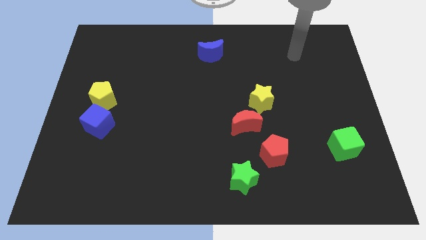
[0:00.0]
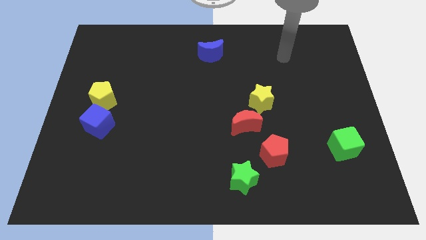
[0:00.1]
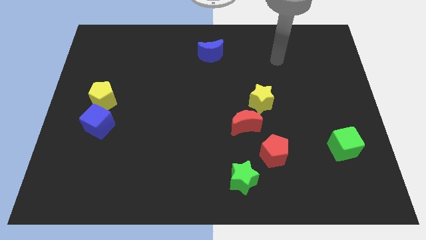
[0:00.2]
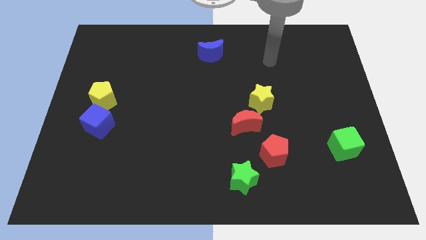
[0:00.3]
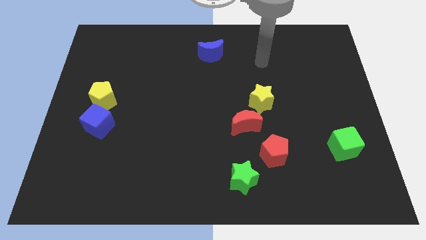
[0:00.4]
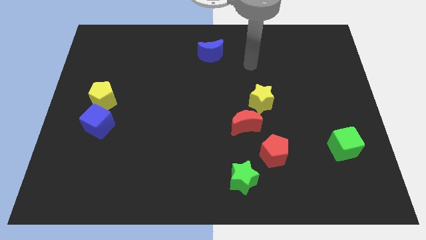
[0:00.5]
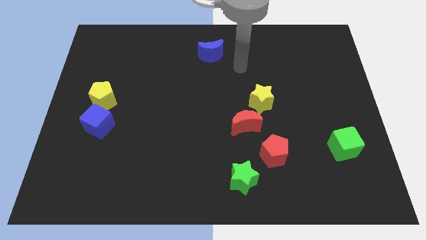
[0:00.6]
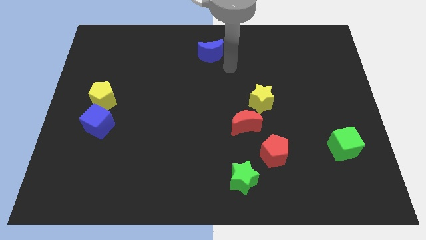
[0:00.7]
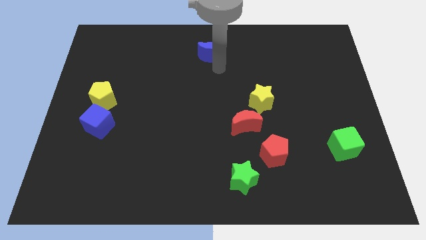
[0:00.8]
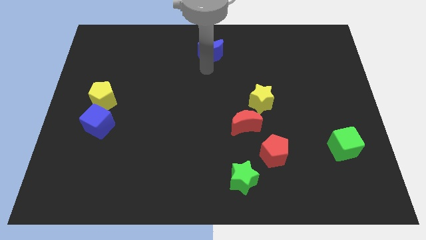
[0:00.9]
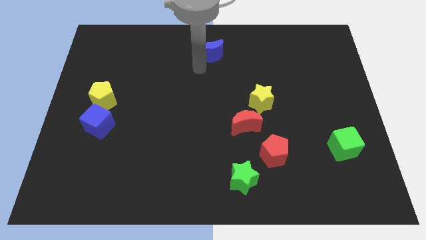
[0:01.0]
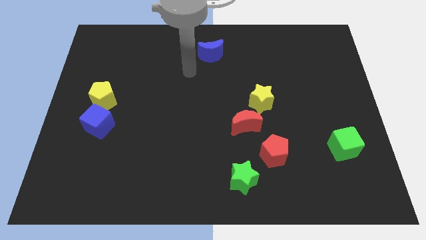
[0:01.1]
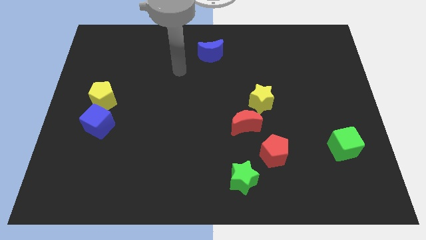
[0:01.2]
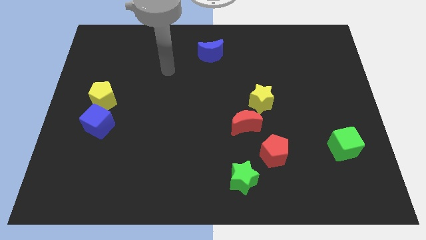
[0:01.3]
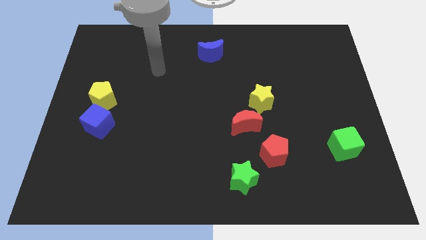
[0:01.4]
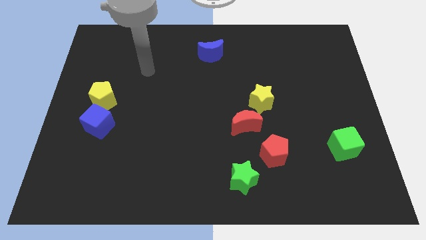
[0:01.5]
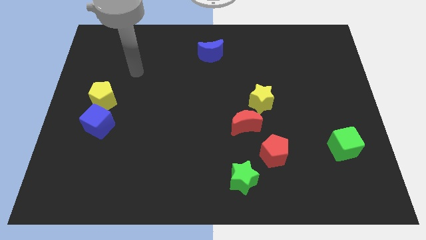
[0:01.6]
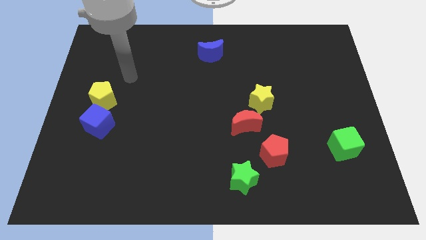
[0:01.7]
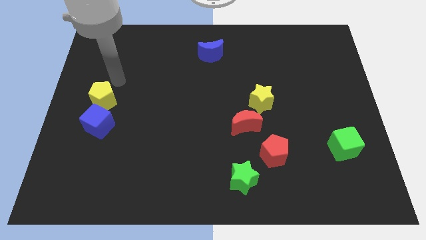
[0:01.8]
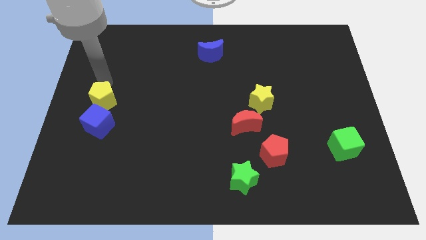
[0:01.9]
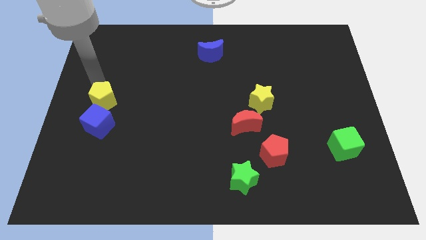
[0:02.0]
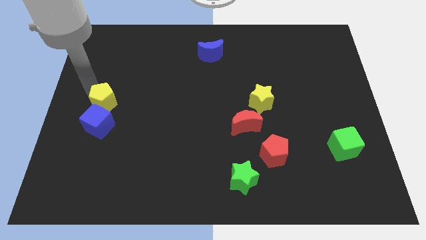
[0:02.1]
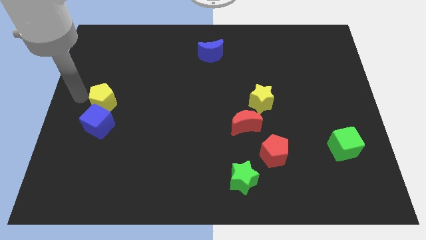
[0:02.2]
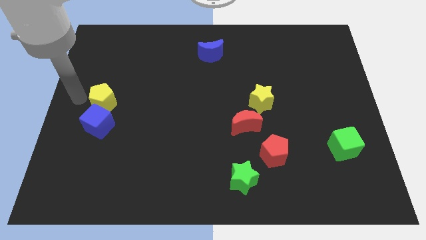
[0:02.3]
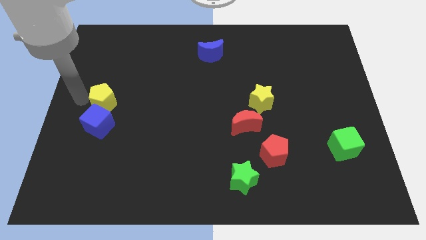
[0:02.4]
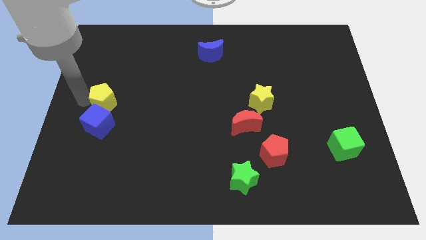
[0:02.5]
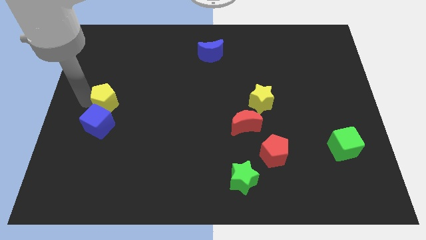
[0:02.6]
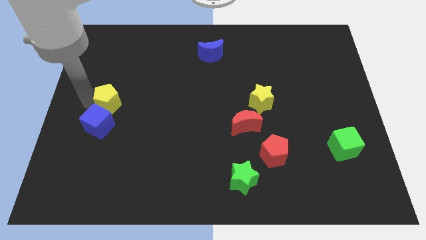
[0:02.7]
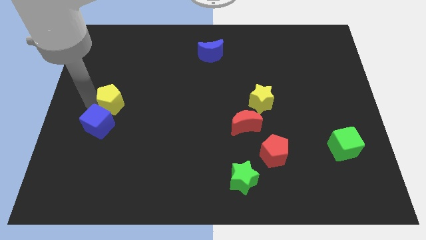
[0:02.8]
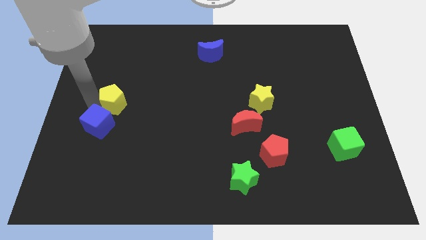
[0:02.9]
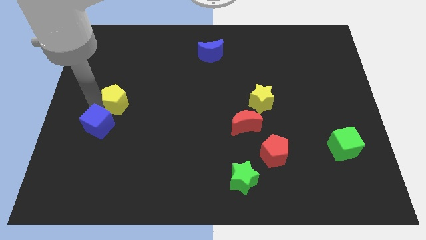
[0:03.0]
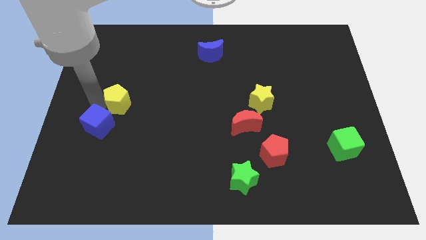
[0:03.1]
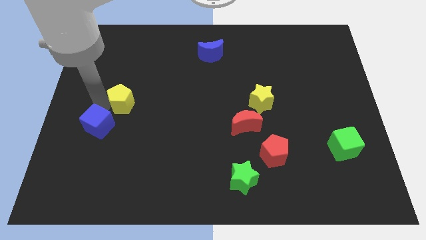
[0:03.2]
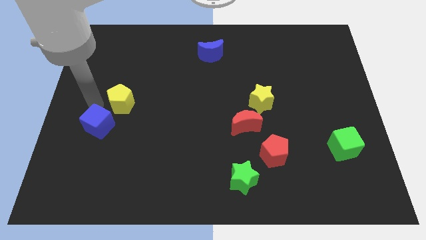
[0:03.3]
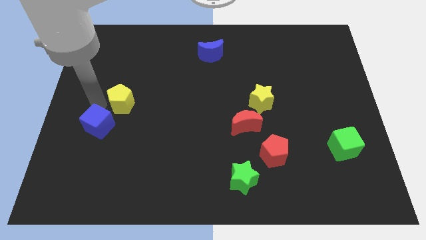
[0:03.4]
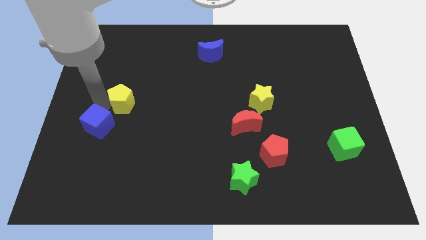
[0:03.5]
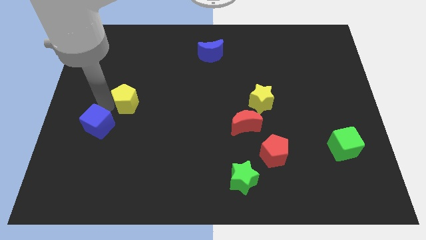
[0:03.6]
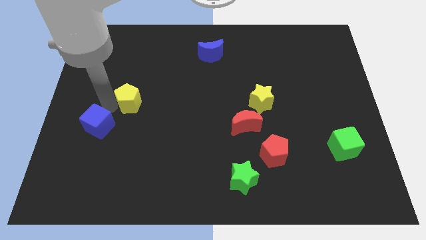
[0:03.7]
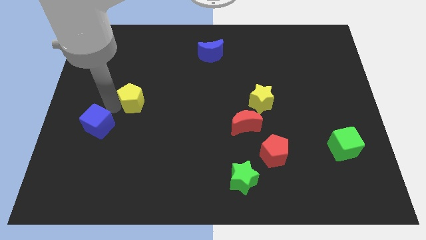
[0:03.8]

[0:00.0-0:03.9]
slide the yellow pentagon right a little

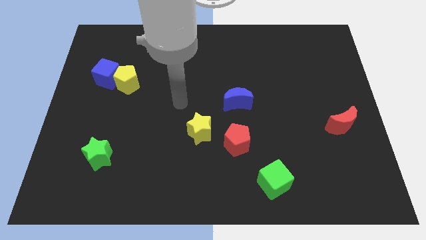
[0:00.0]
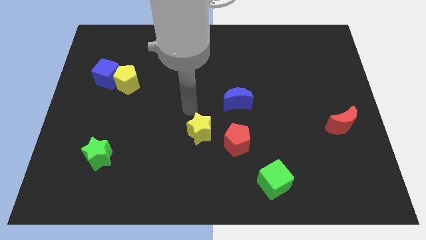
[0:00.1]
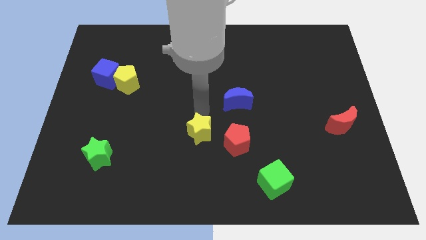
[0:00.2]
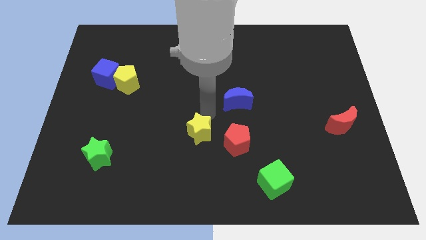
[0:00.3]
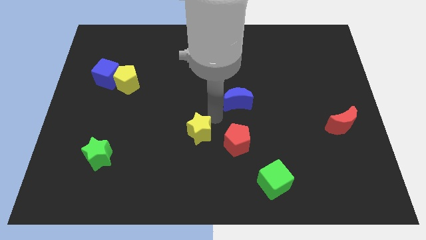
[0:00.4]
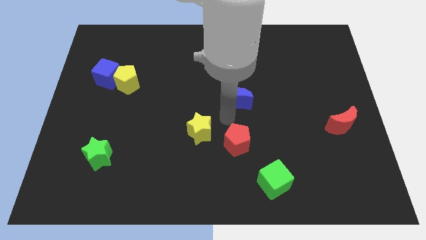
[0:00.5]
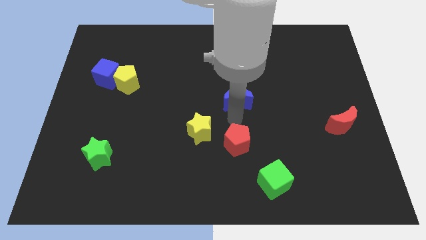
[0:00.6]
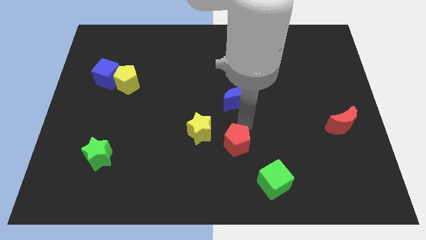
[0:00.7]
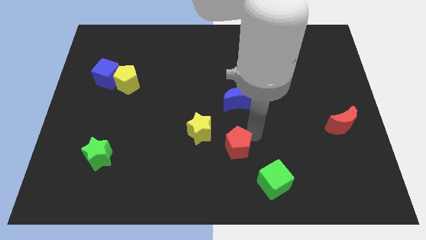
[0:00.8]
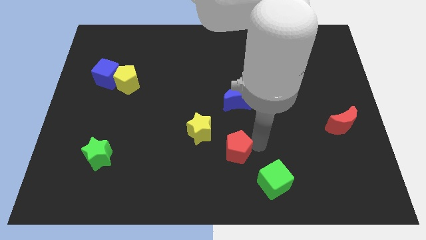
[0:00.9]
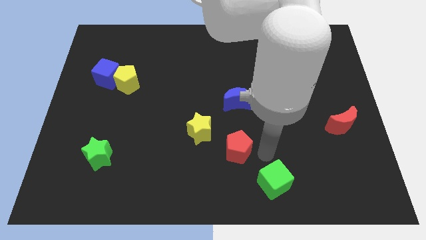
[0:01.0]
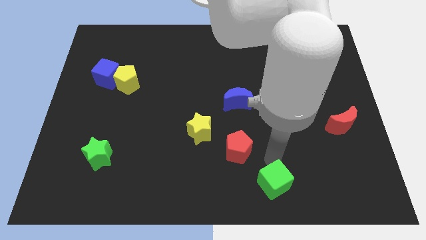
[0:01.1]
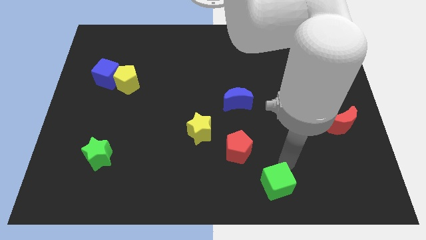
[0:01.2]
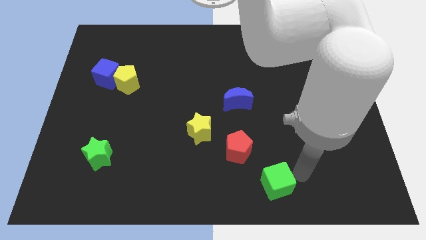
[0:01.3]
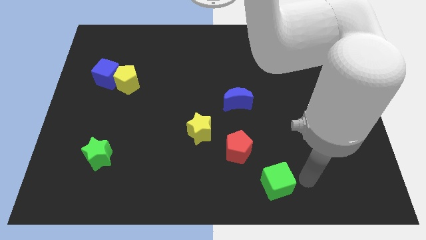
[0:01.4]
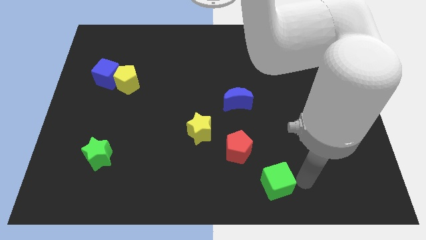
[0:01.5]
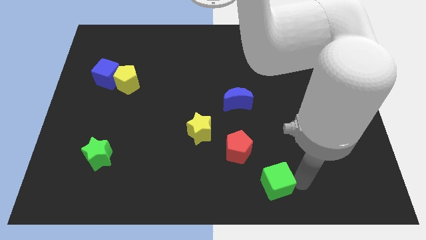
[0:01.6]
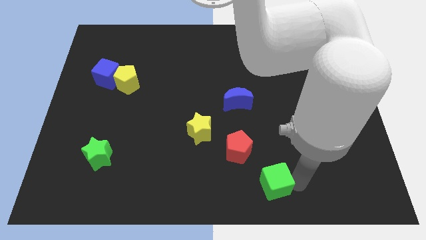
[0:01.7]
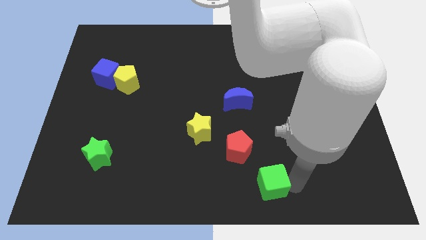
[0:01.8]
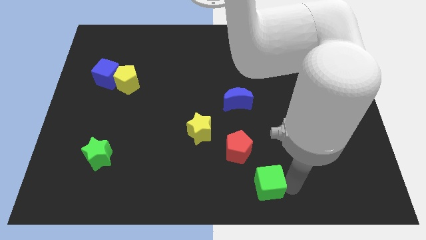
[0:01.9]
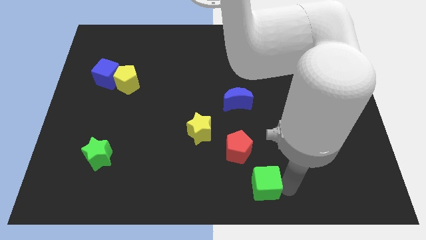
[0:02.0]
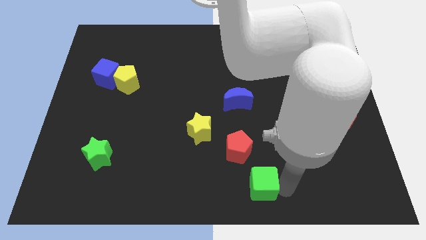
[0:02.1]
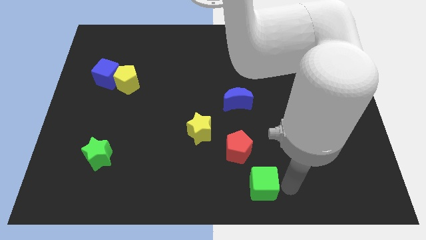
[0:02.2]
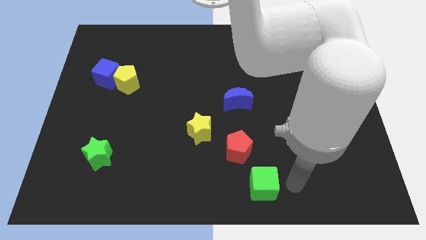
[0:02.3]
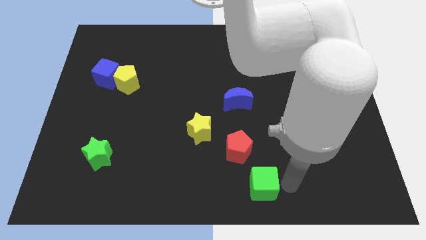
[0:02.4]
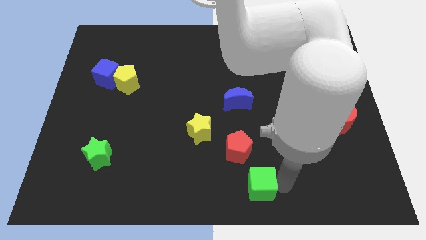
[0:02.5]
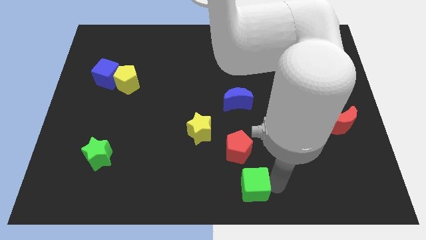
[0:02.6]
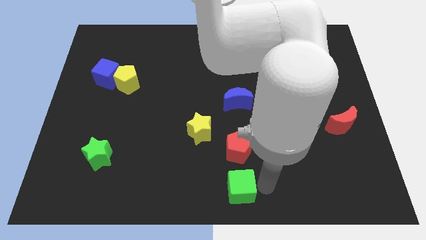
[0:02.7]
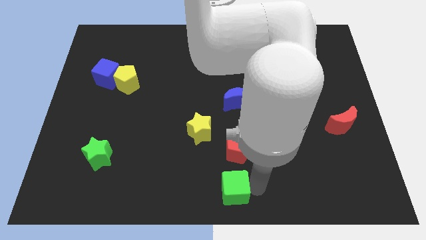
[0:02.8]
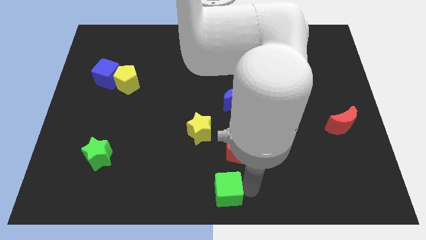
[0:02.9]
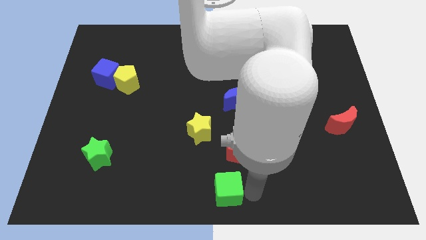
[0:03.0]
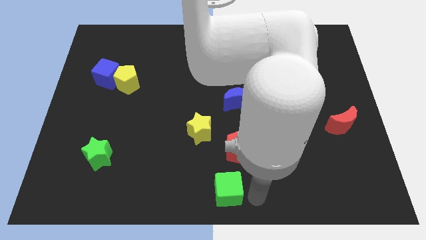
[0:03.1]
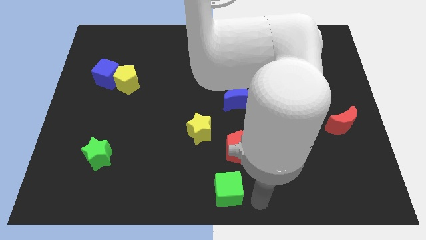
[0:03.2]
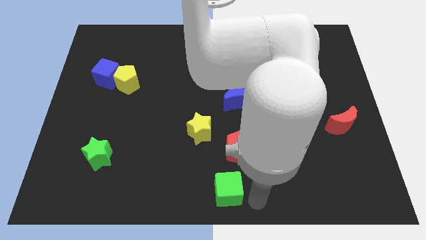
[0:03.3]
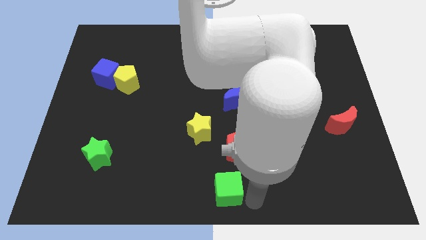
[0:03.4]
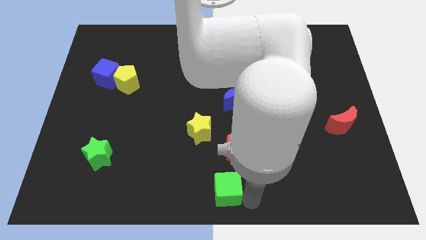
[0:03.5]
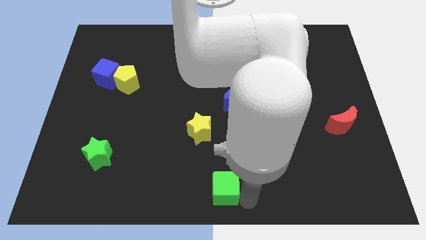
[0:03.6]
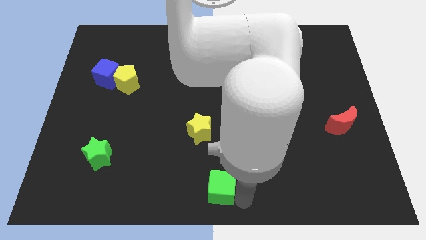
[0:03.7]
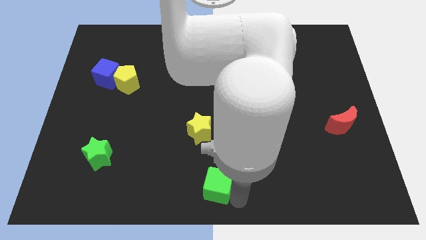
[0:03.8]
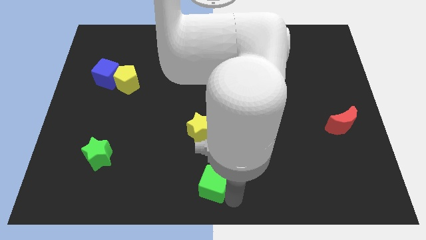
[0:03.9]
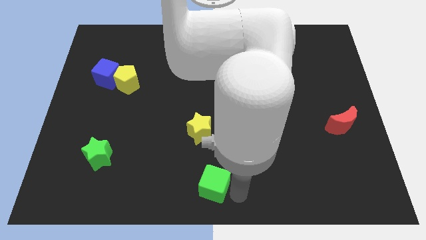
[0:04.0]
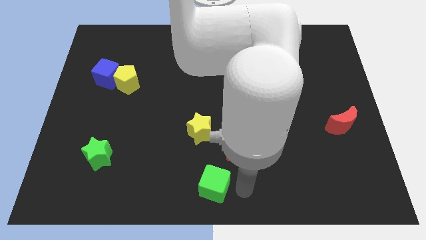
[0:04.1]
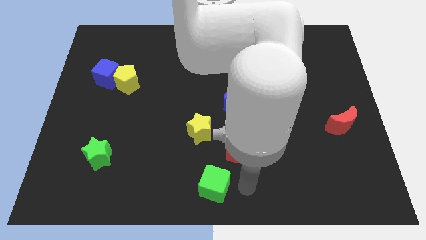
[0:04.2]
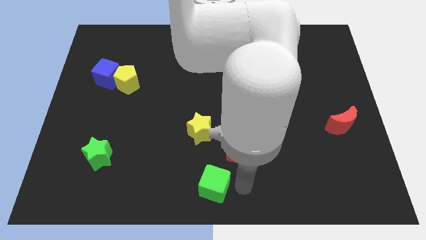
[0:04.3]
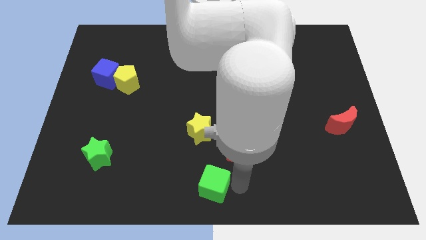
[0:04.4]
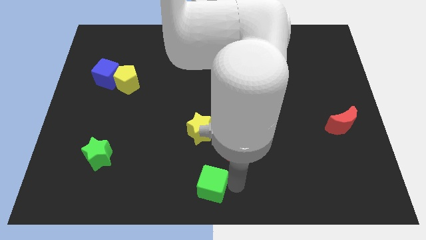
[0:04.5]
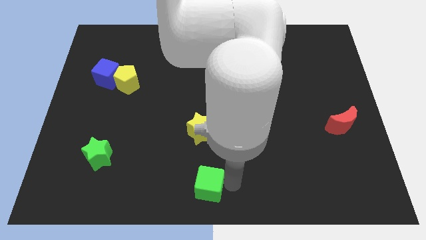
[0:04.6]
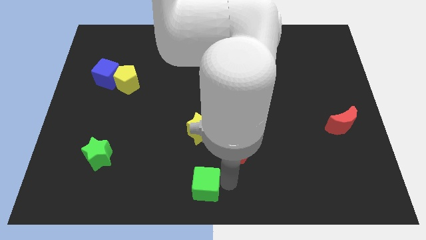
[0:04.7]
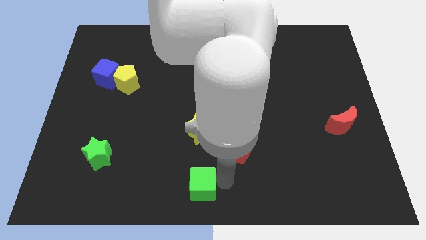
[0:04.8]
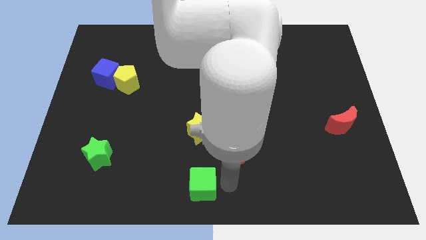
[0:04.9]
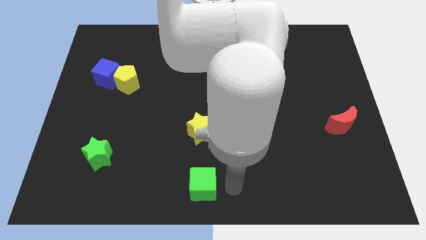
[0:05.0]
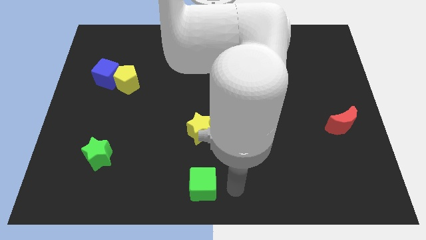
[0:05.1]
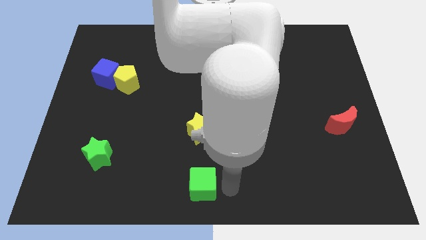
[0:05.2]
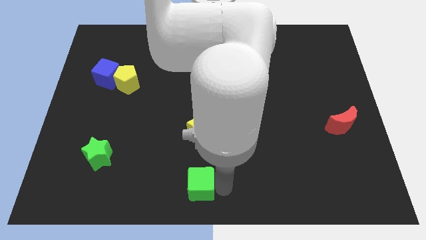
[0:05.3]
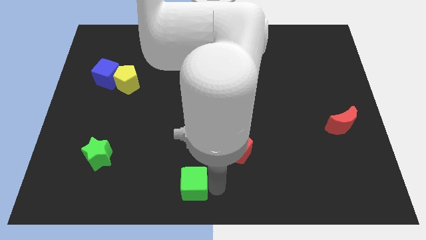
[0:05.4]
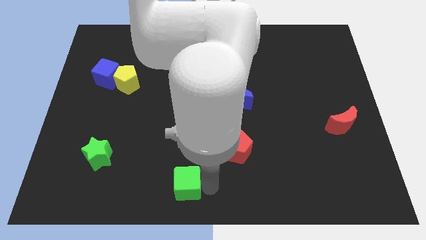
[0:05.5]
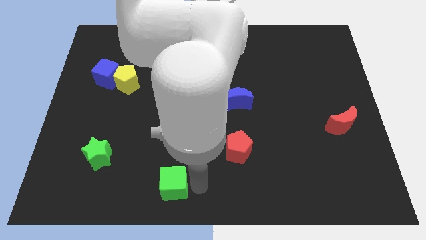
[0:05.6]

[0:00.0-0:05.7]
move the green cube left
